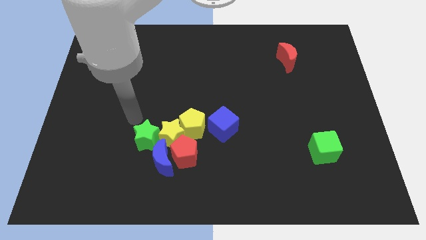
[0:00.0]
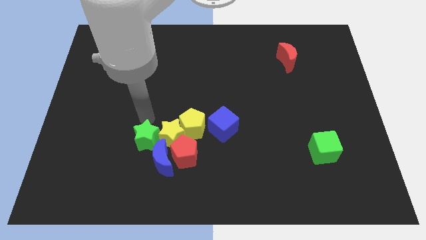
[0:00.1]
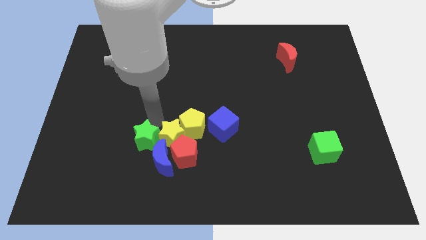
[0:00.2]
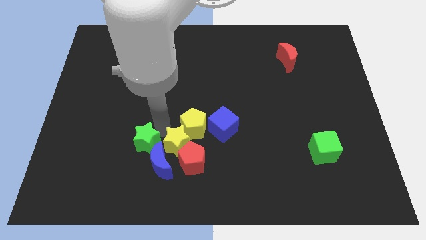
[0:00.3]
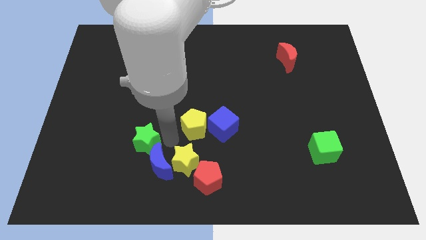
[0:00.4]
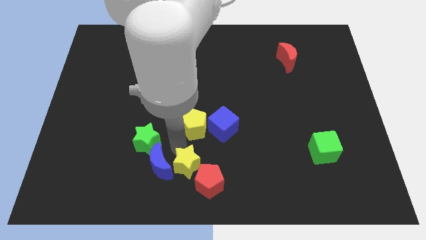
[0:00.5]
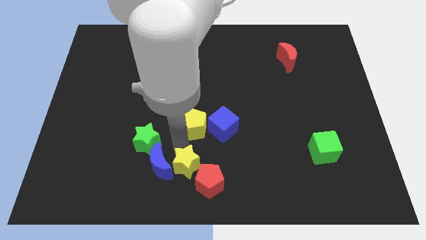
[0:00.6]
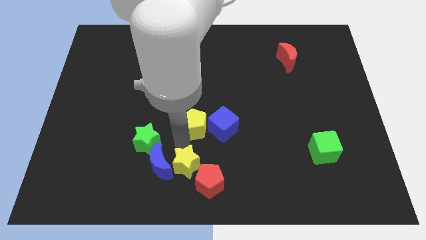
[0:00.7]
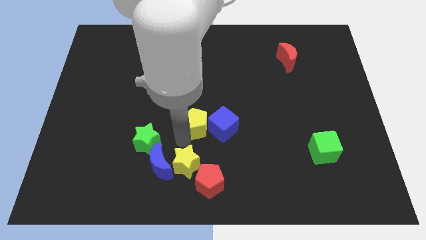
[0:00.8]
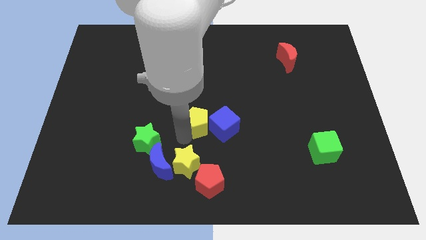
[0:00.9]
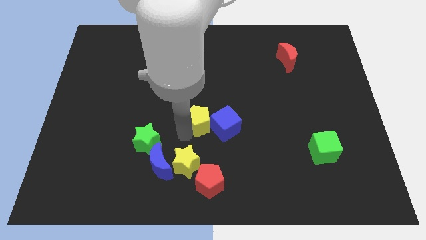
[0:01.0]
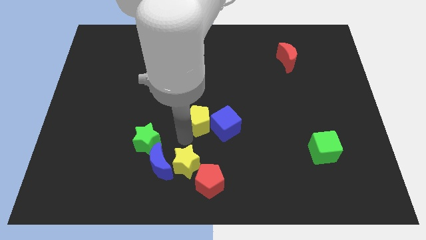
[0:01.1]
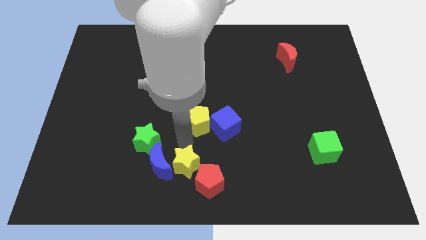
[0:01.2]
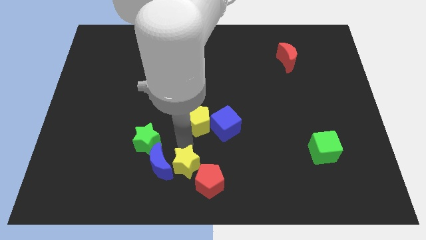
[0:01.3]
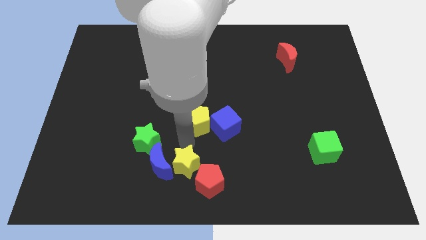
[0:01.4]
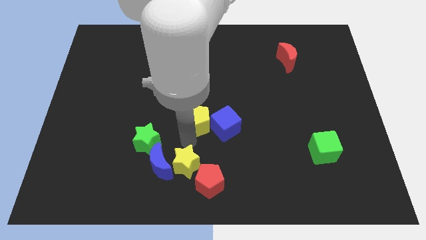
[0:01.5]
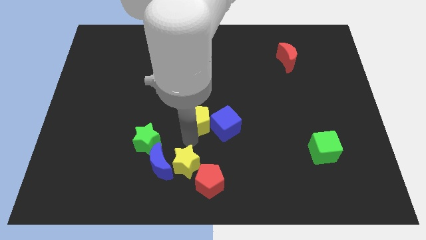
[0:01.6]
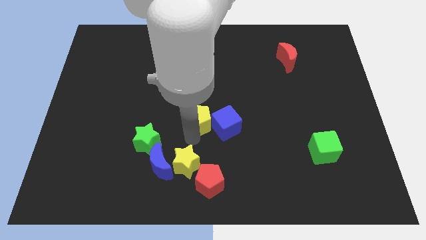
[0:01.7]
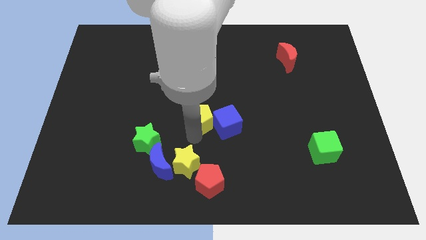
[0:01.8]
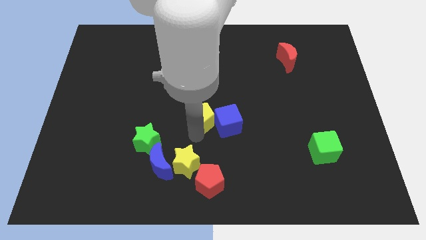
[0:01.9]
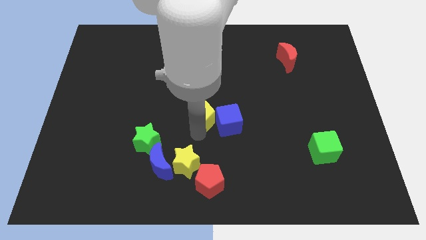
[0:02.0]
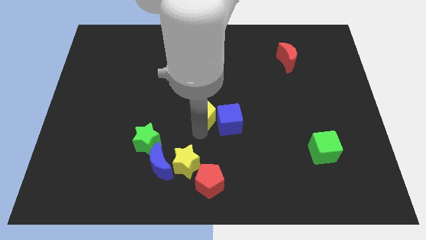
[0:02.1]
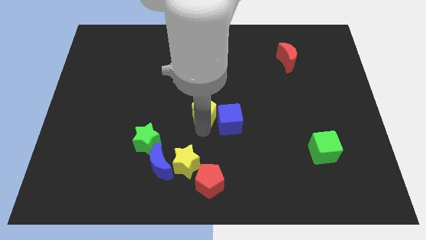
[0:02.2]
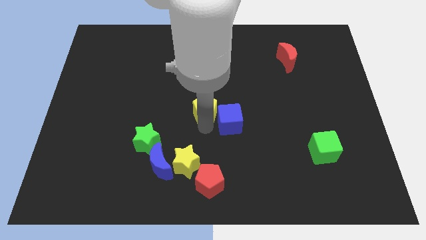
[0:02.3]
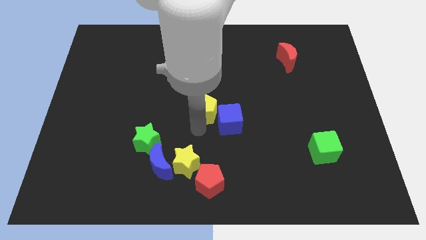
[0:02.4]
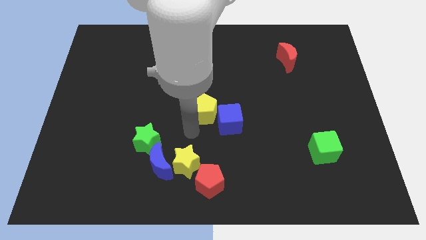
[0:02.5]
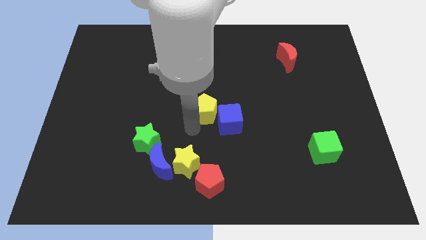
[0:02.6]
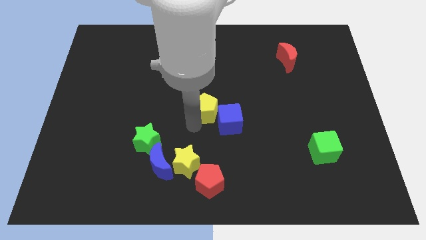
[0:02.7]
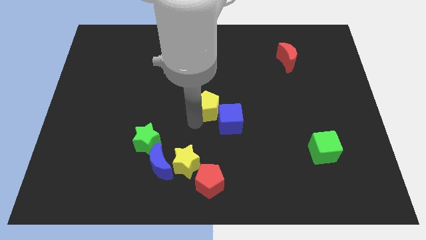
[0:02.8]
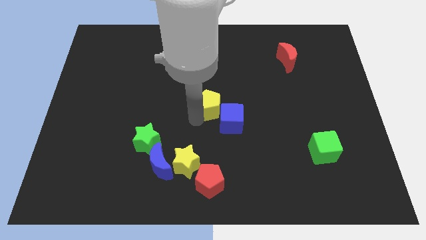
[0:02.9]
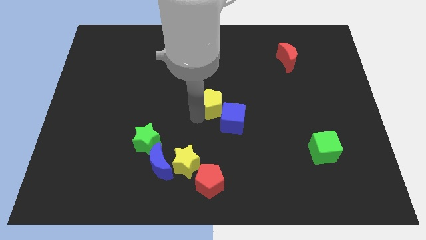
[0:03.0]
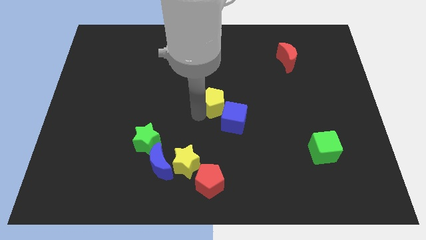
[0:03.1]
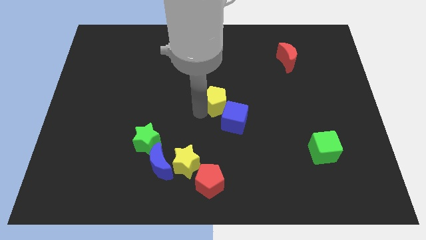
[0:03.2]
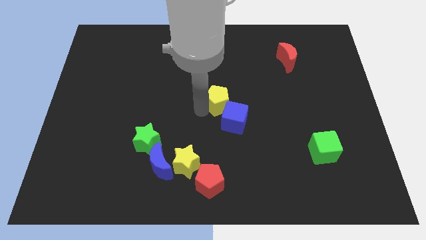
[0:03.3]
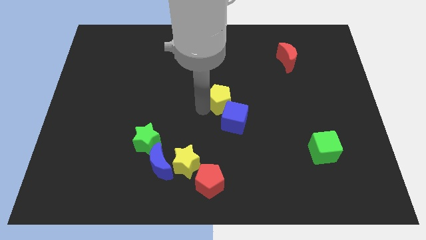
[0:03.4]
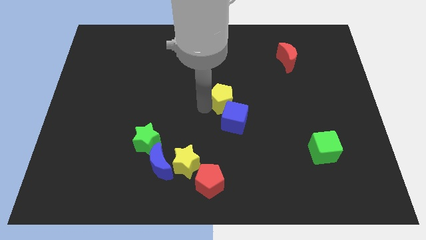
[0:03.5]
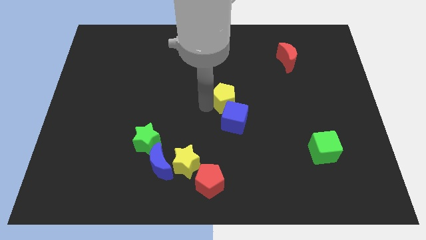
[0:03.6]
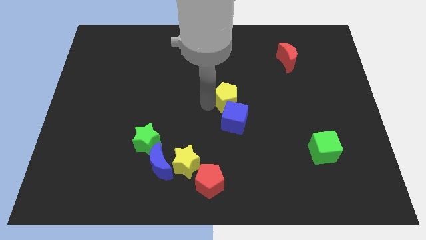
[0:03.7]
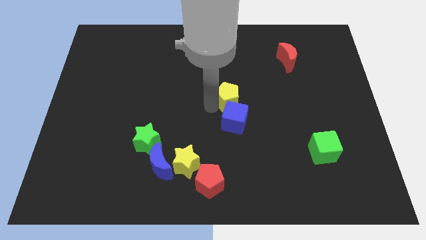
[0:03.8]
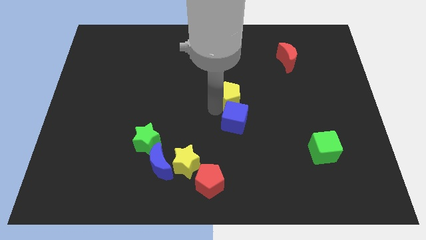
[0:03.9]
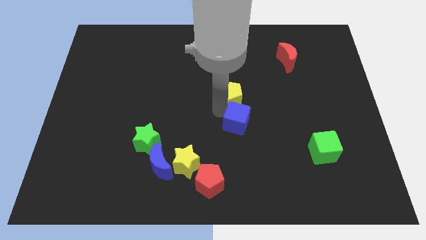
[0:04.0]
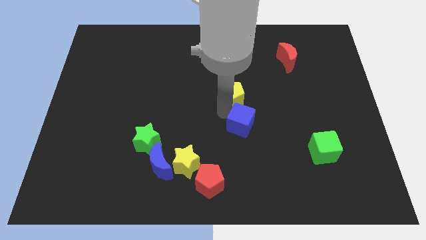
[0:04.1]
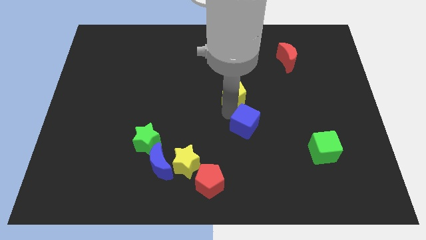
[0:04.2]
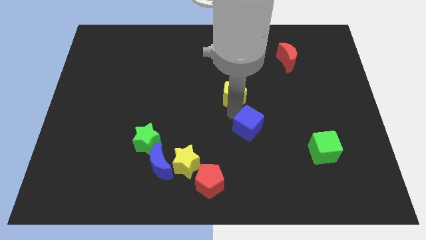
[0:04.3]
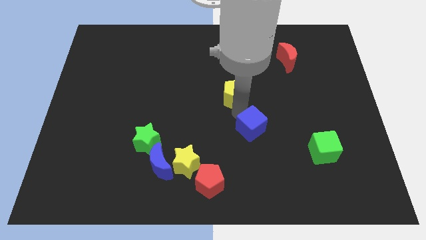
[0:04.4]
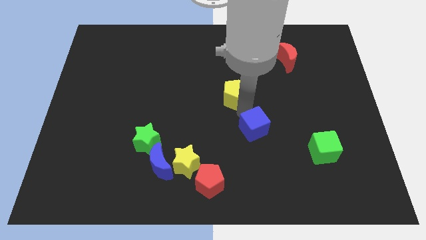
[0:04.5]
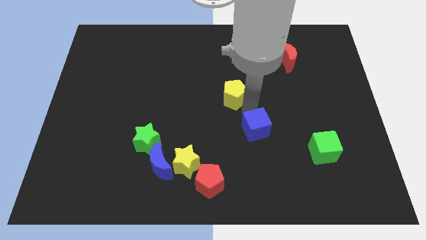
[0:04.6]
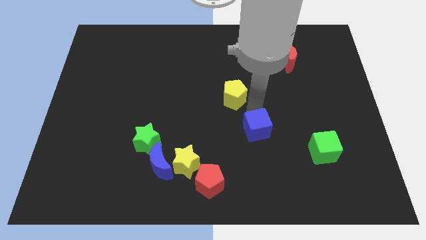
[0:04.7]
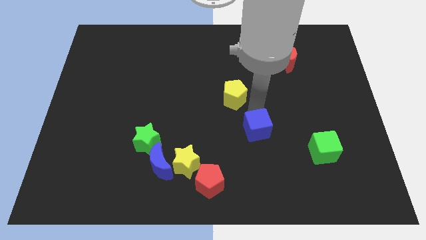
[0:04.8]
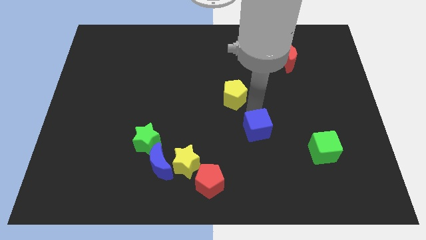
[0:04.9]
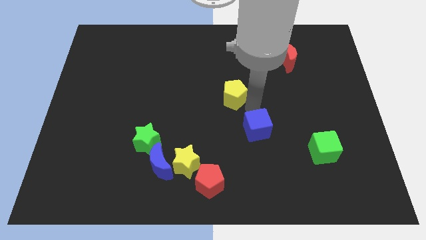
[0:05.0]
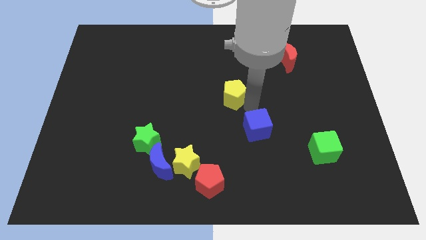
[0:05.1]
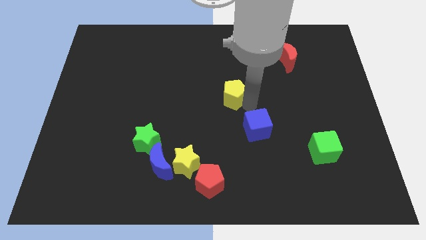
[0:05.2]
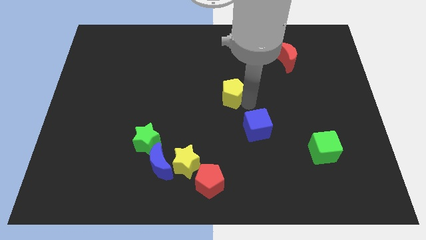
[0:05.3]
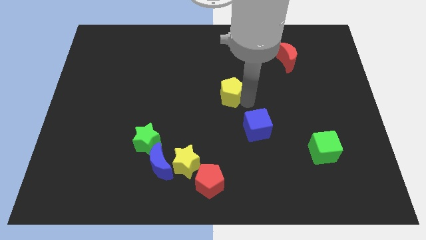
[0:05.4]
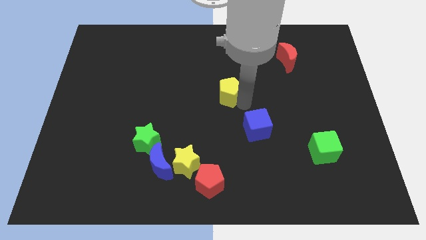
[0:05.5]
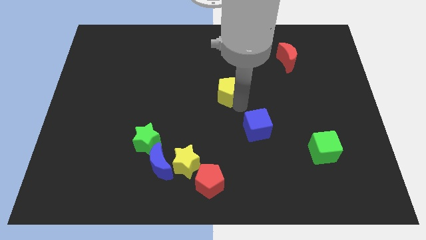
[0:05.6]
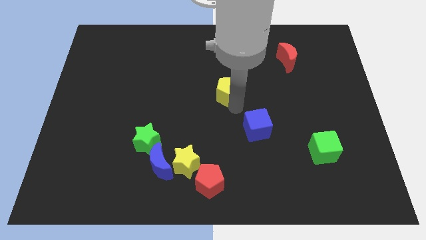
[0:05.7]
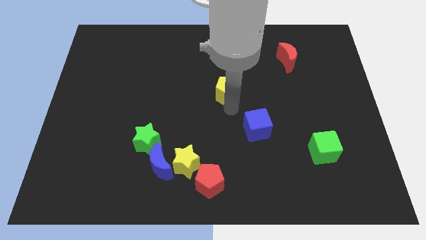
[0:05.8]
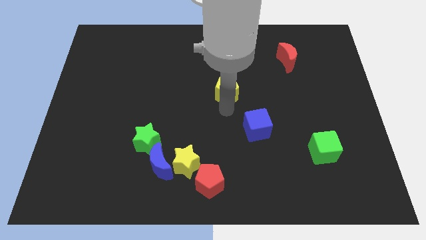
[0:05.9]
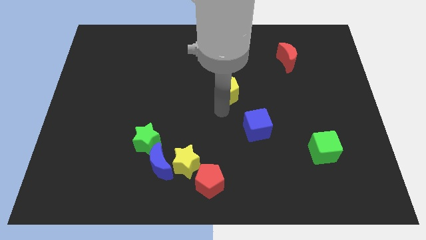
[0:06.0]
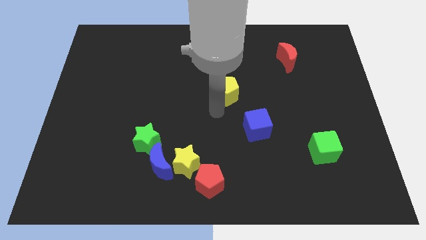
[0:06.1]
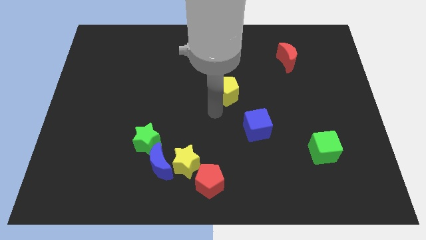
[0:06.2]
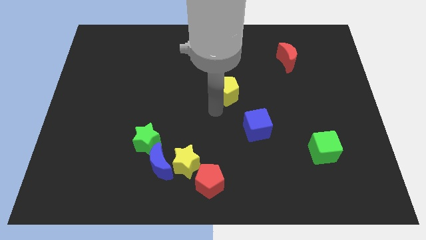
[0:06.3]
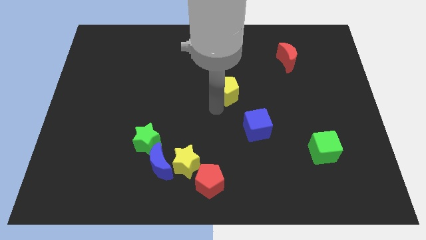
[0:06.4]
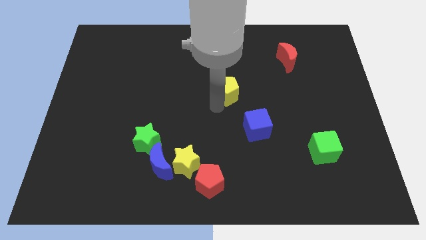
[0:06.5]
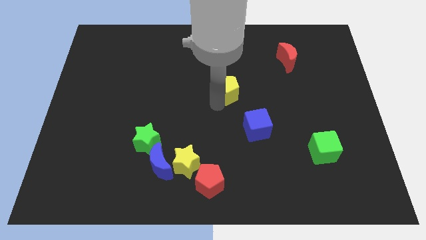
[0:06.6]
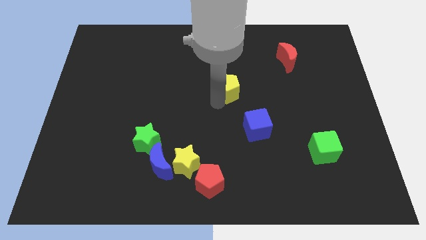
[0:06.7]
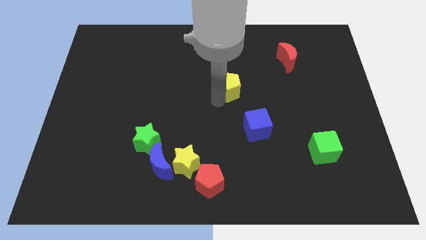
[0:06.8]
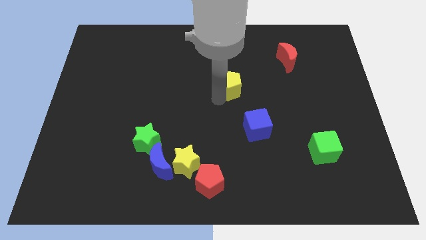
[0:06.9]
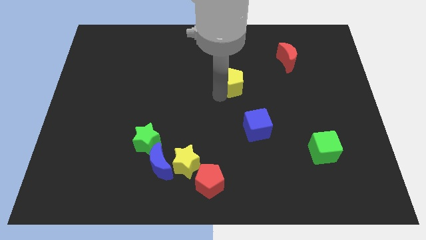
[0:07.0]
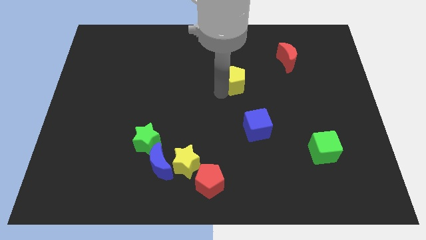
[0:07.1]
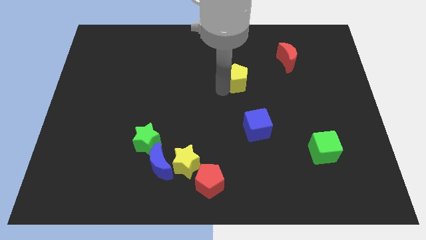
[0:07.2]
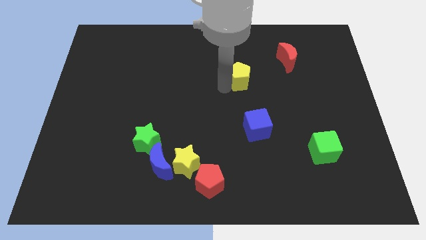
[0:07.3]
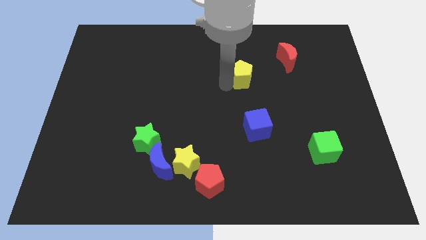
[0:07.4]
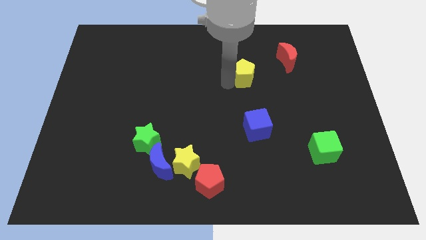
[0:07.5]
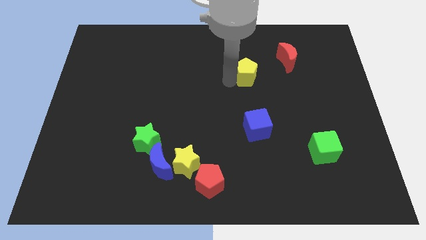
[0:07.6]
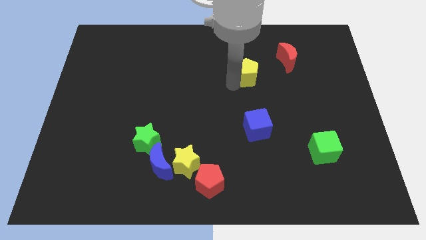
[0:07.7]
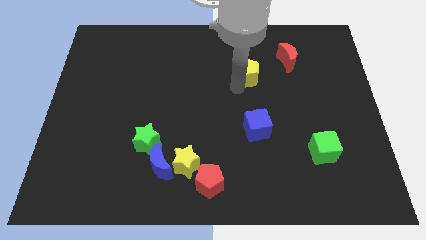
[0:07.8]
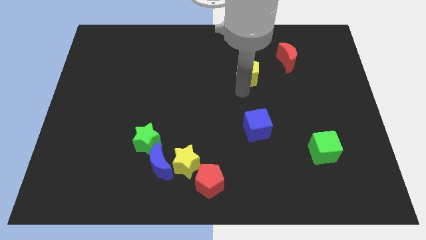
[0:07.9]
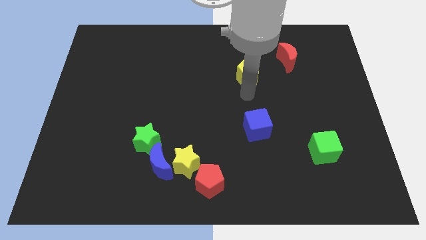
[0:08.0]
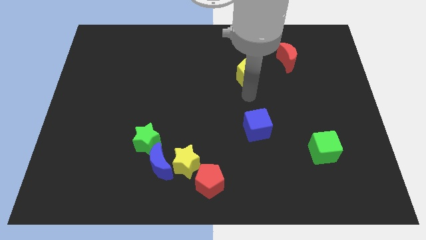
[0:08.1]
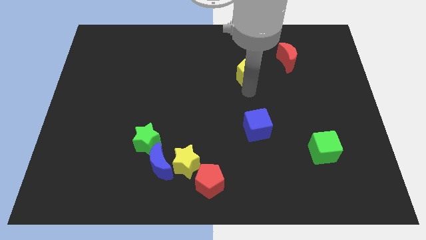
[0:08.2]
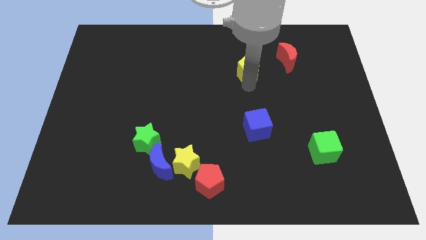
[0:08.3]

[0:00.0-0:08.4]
put the yellow pentagon to the left of the red moon
